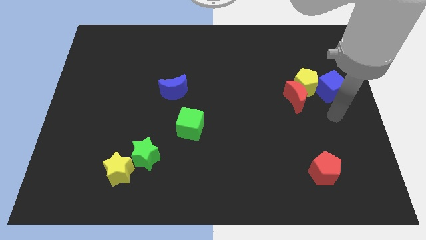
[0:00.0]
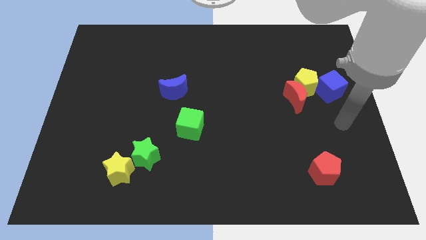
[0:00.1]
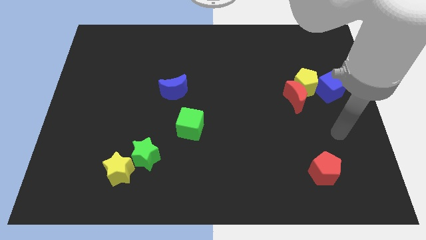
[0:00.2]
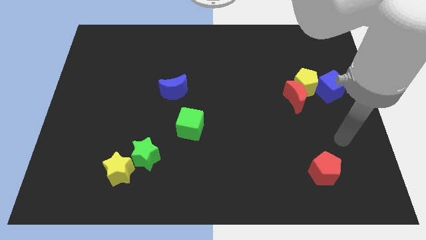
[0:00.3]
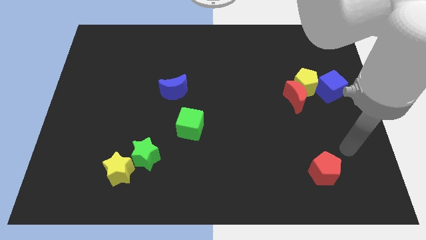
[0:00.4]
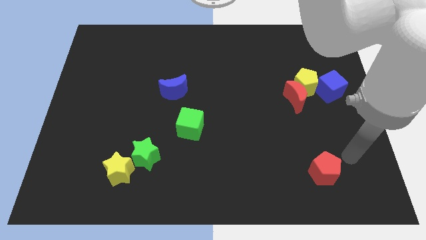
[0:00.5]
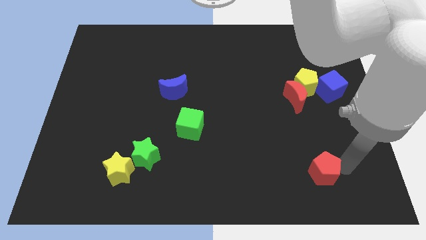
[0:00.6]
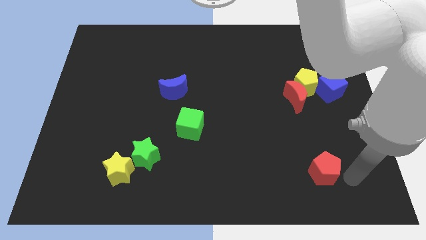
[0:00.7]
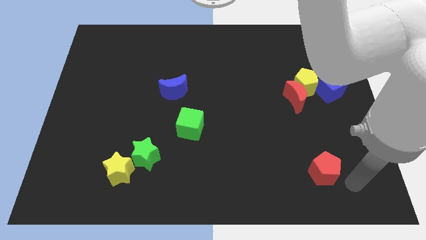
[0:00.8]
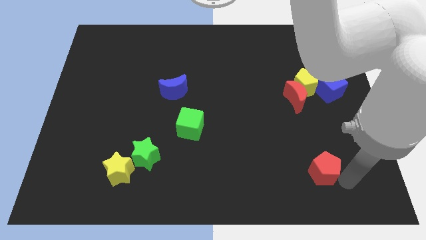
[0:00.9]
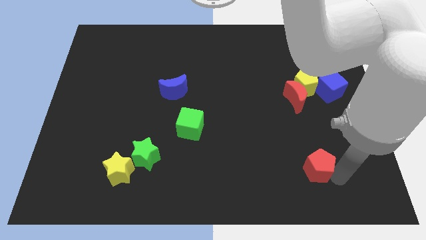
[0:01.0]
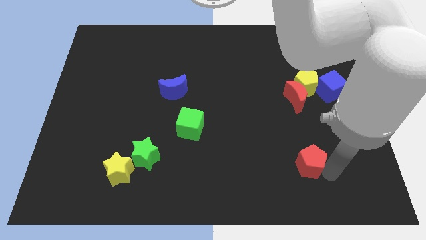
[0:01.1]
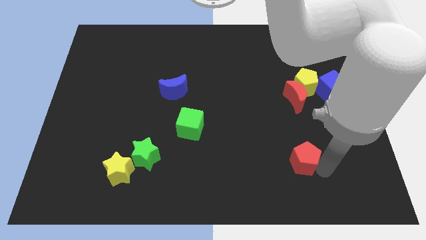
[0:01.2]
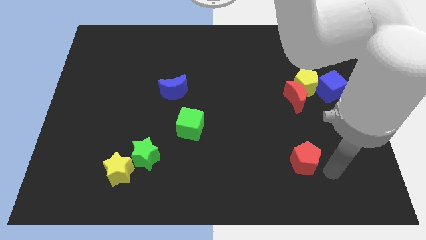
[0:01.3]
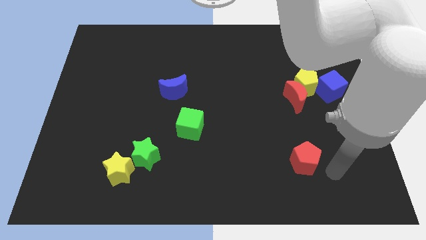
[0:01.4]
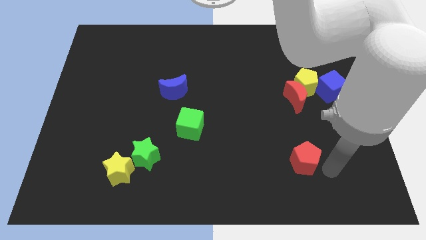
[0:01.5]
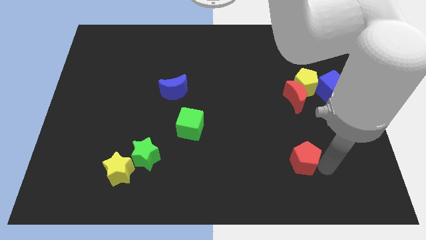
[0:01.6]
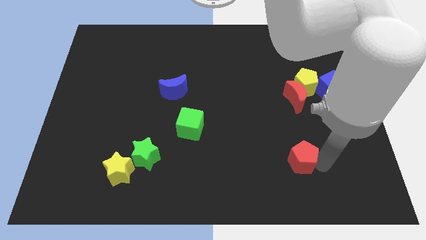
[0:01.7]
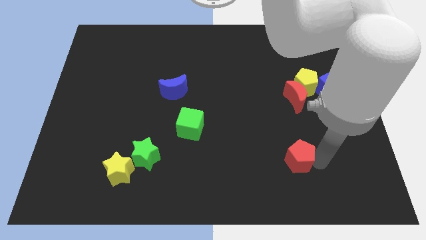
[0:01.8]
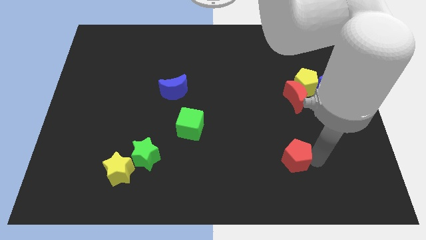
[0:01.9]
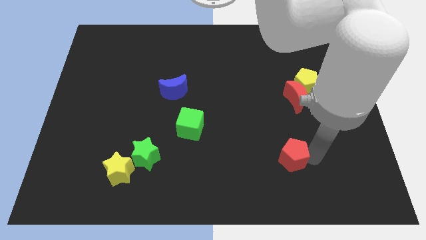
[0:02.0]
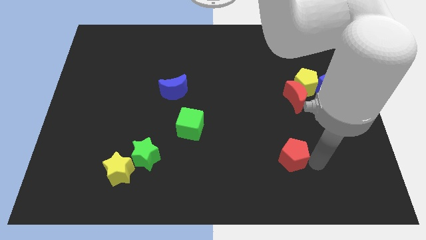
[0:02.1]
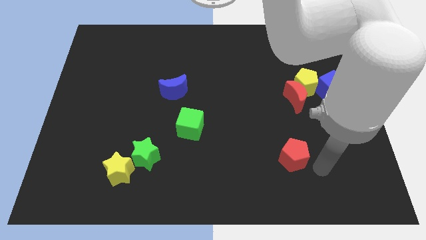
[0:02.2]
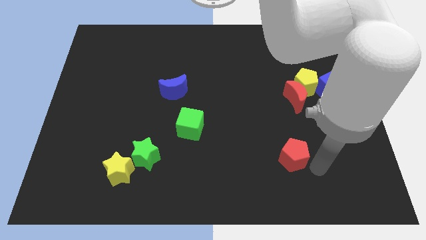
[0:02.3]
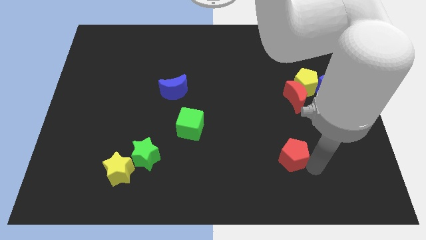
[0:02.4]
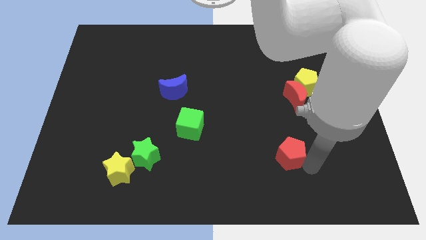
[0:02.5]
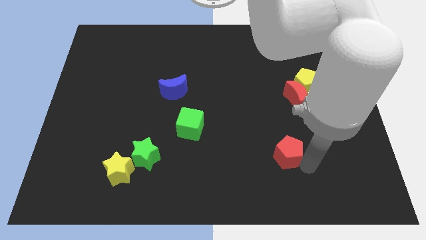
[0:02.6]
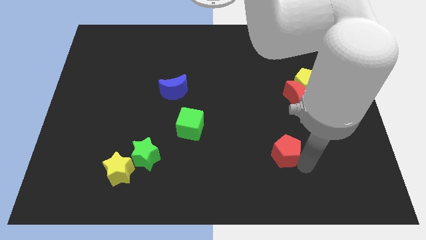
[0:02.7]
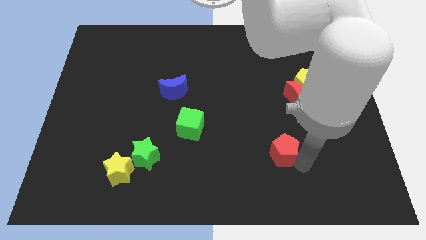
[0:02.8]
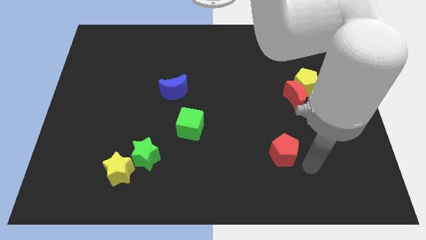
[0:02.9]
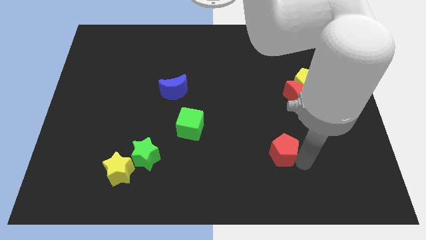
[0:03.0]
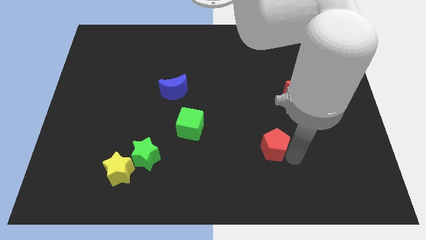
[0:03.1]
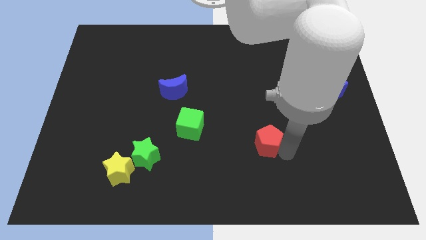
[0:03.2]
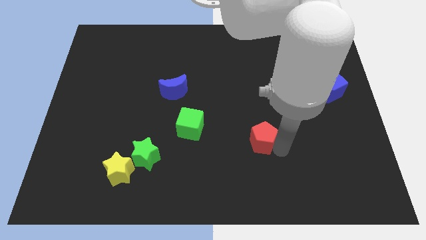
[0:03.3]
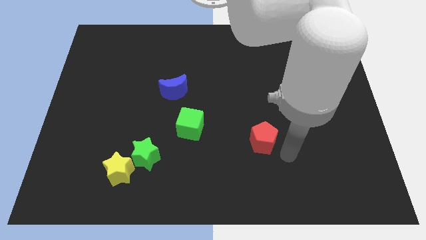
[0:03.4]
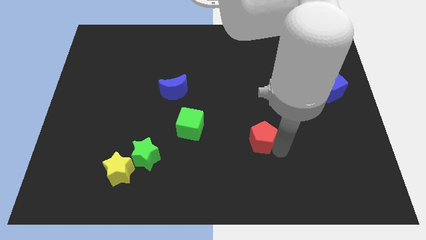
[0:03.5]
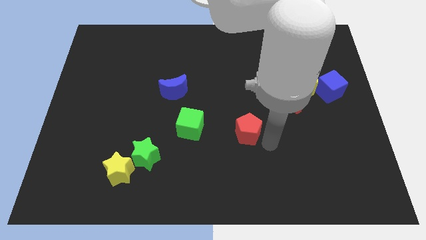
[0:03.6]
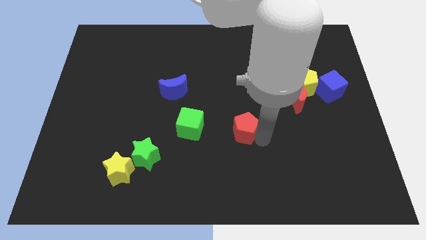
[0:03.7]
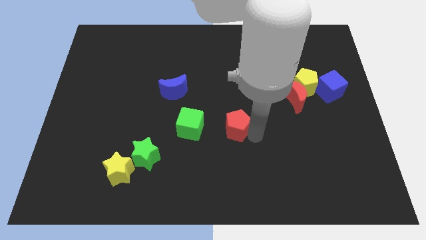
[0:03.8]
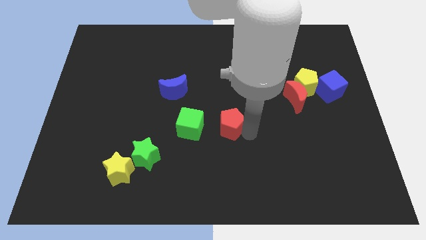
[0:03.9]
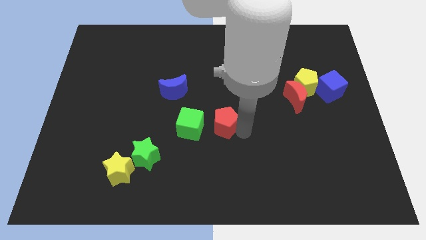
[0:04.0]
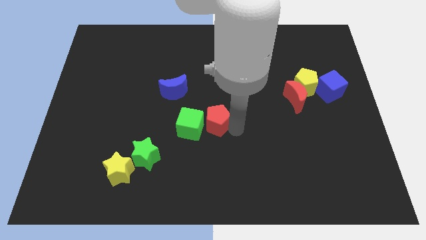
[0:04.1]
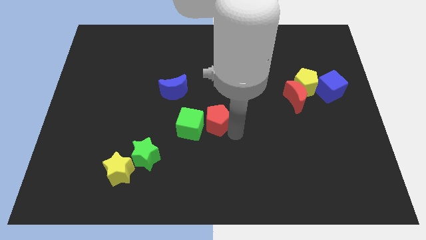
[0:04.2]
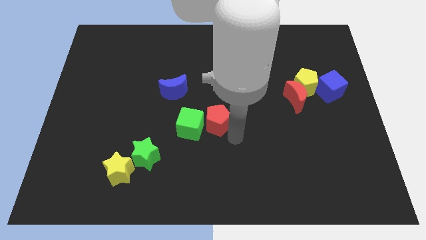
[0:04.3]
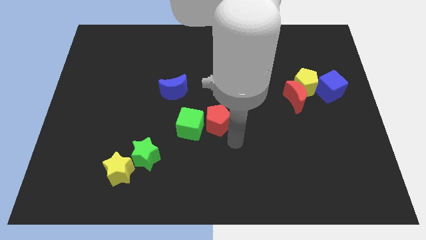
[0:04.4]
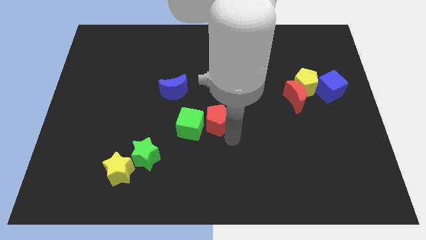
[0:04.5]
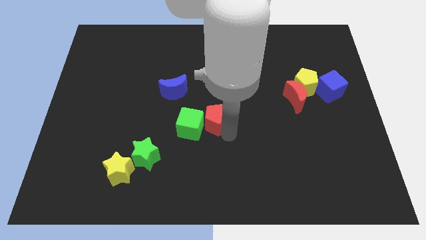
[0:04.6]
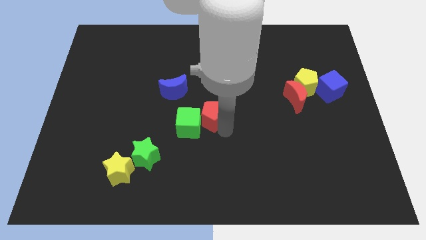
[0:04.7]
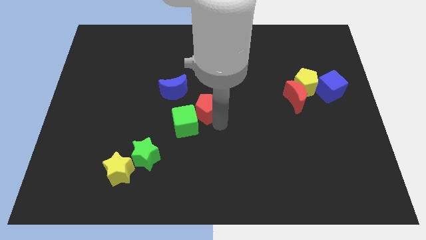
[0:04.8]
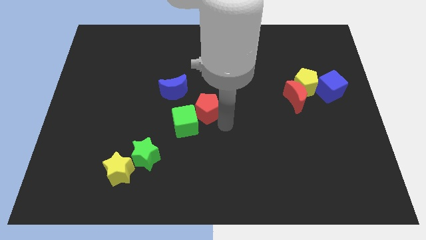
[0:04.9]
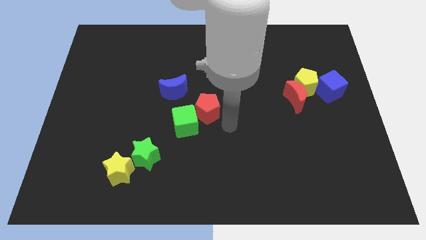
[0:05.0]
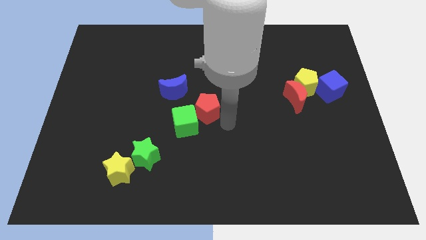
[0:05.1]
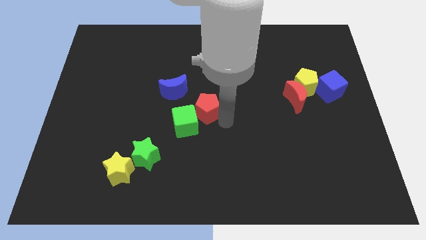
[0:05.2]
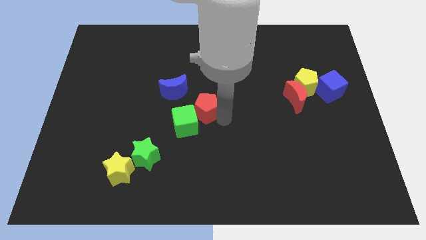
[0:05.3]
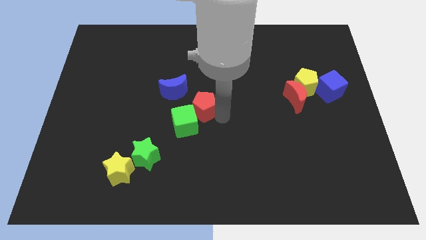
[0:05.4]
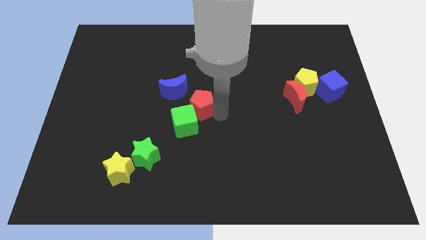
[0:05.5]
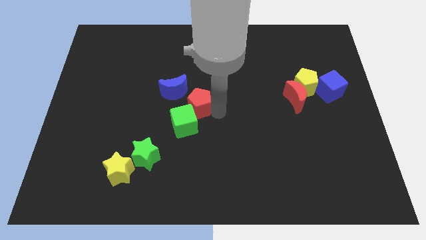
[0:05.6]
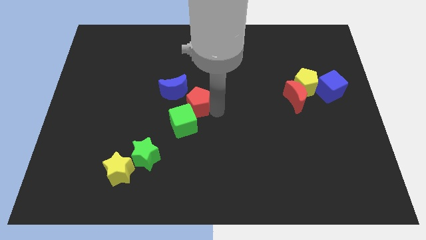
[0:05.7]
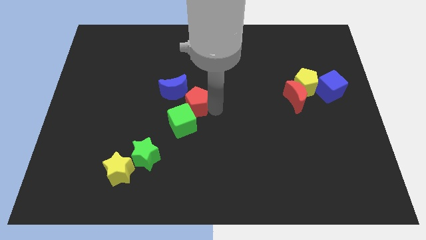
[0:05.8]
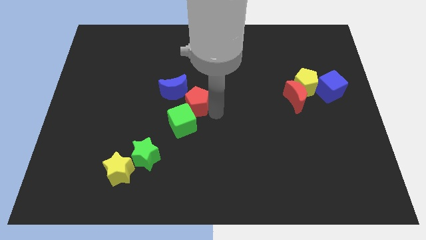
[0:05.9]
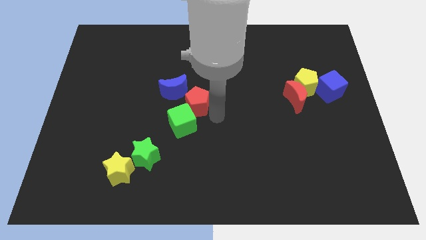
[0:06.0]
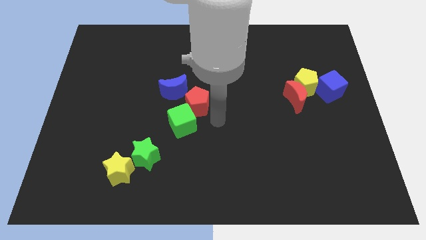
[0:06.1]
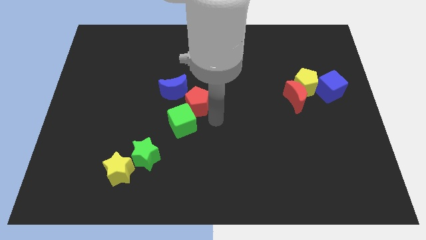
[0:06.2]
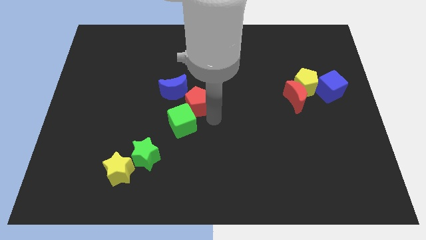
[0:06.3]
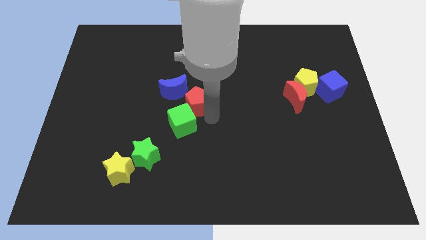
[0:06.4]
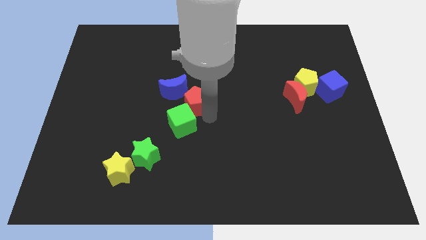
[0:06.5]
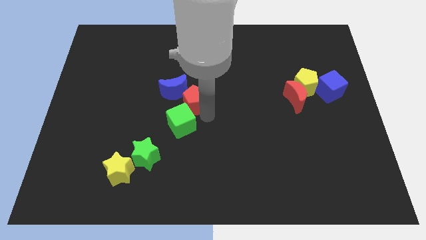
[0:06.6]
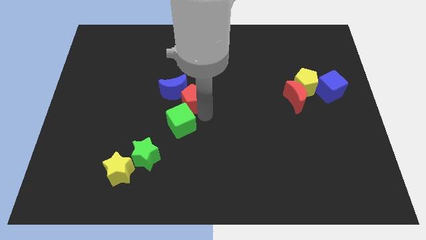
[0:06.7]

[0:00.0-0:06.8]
slide the red pentagon next to the blue moon
